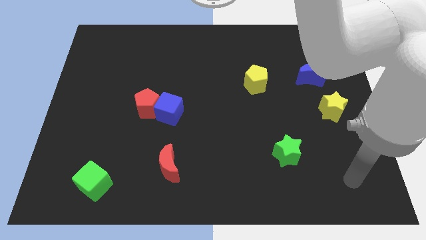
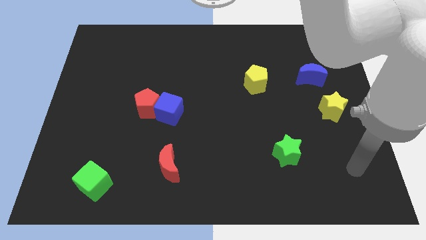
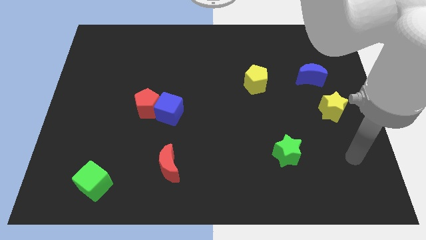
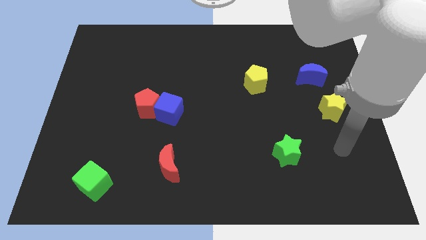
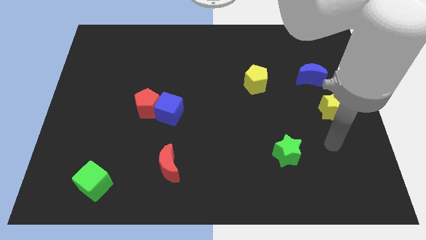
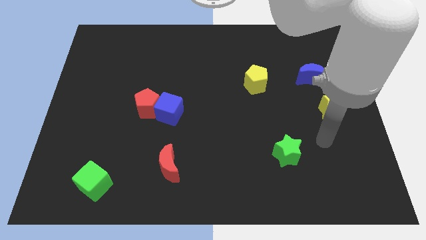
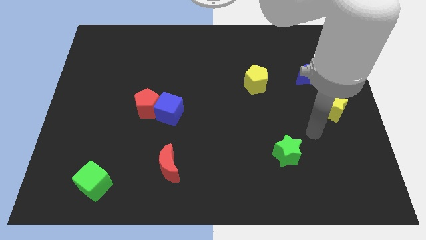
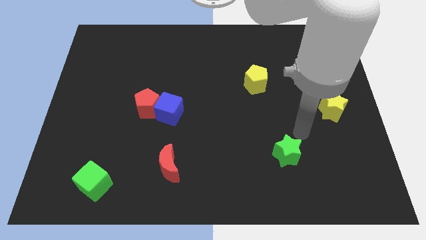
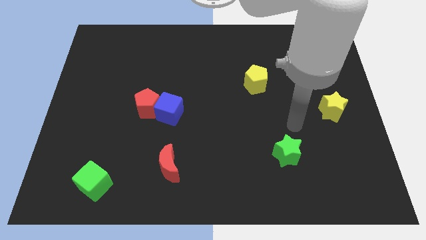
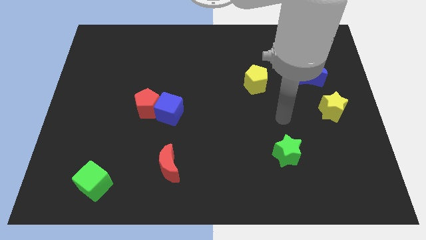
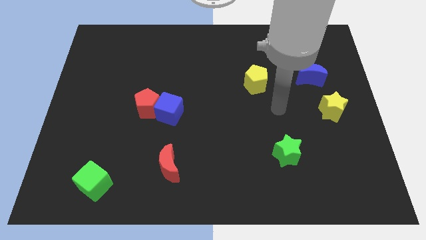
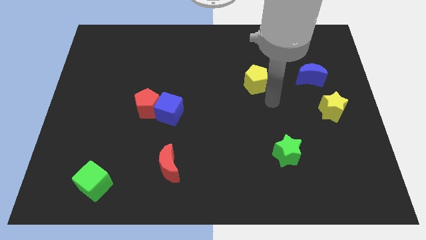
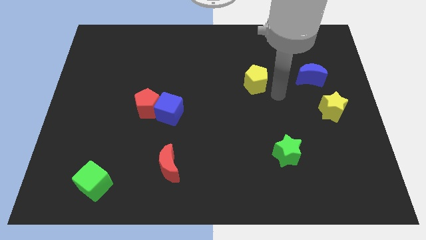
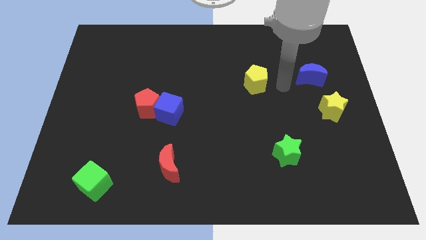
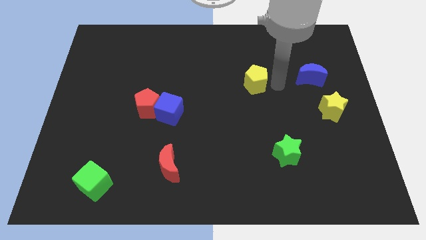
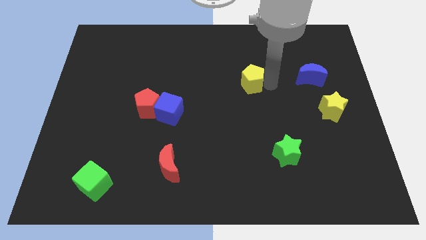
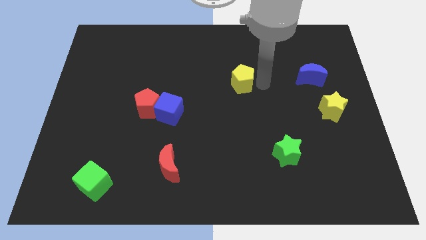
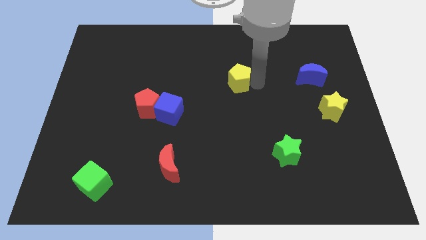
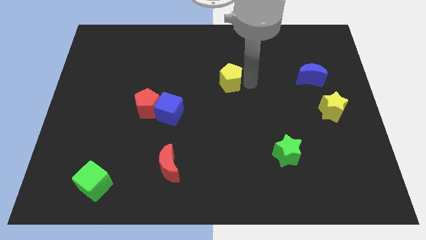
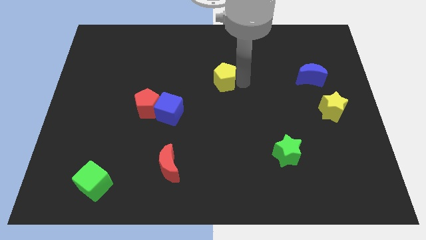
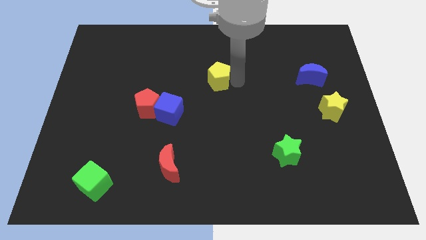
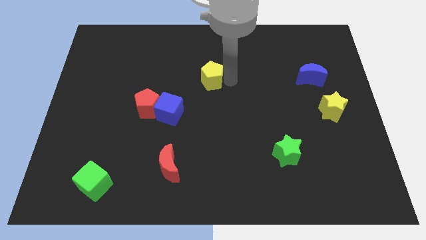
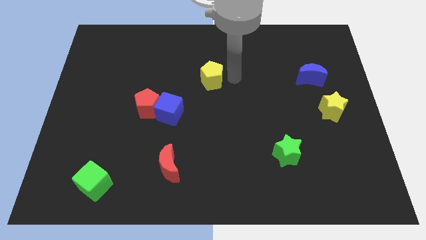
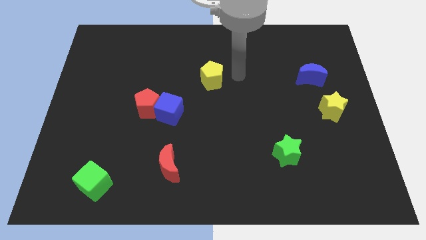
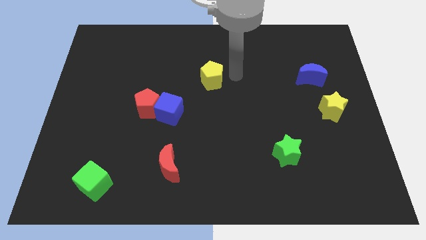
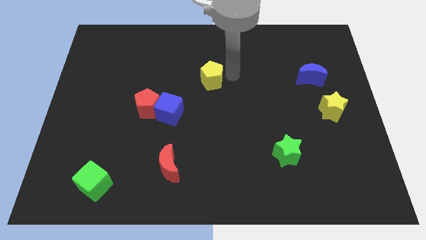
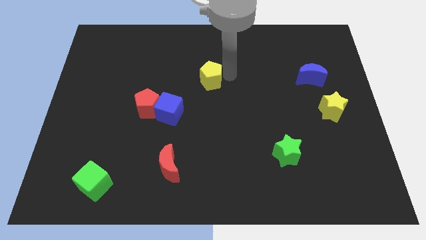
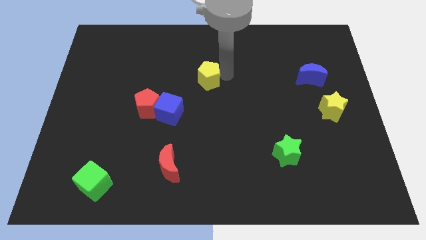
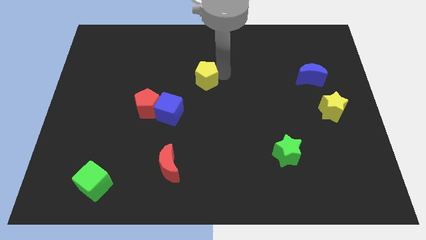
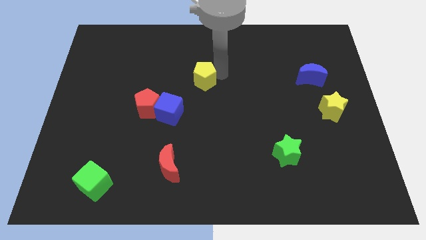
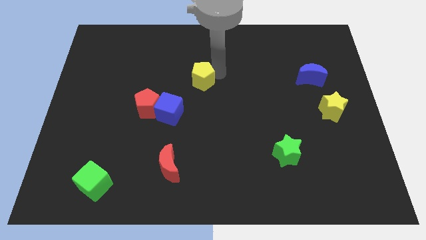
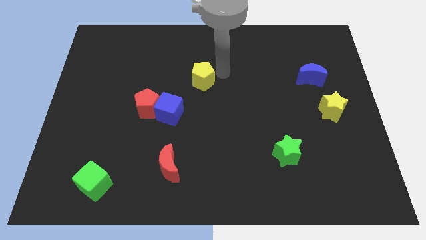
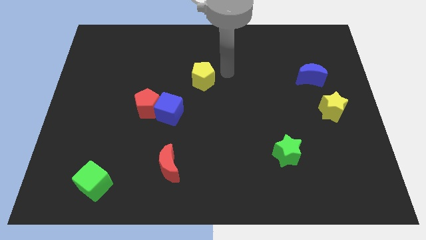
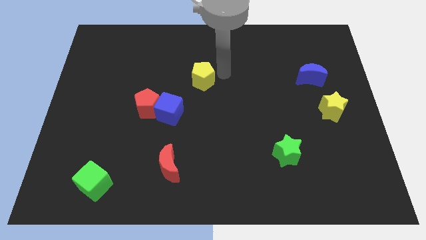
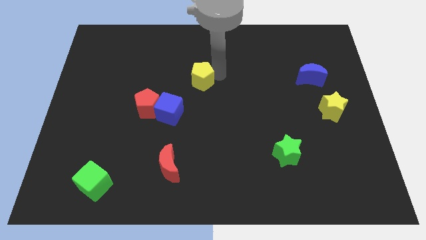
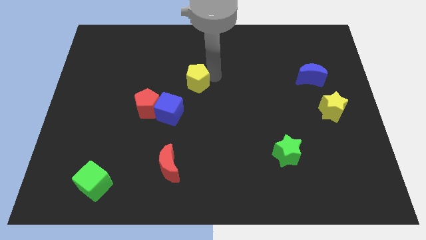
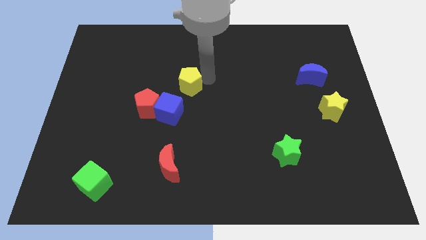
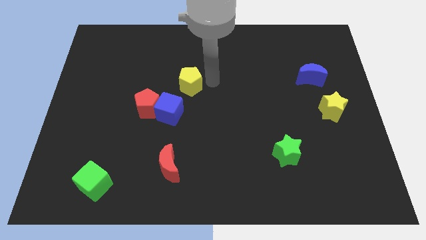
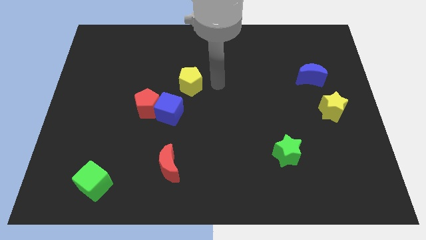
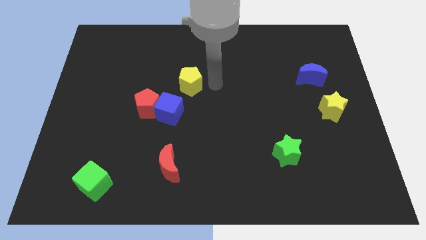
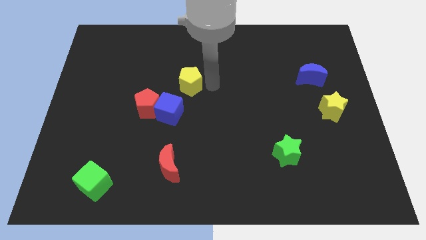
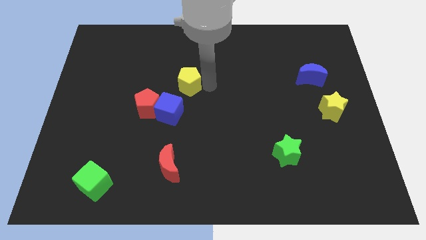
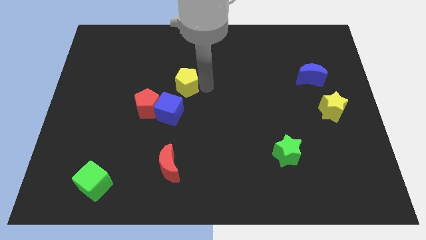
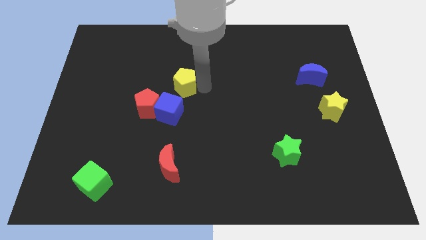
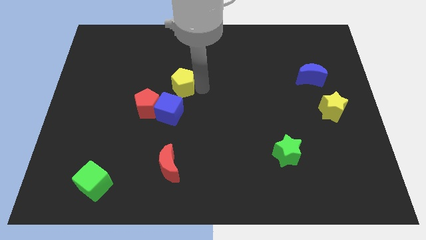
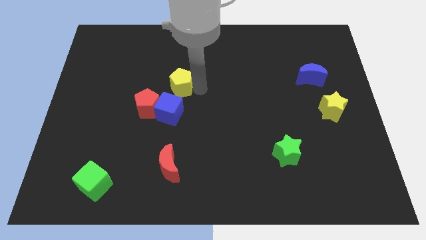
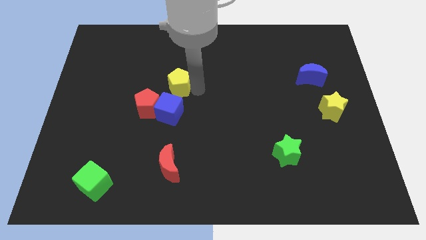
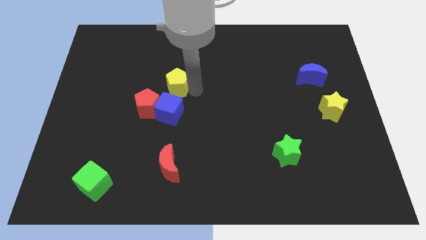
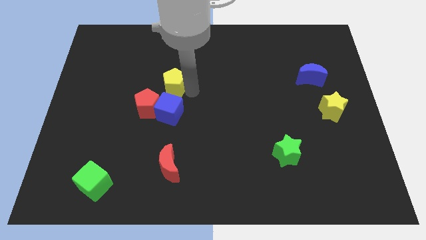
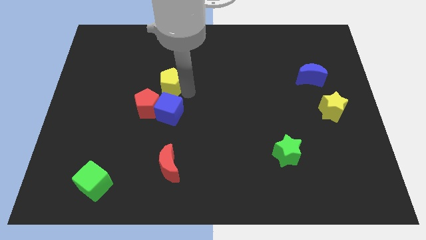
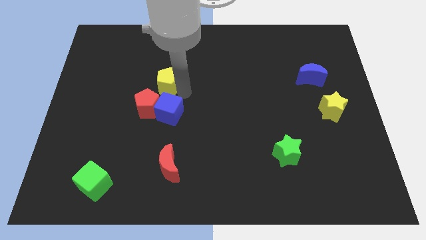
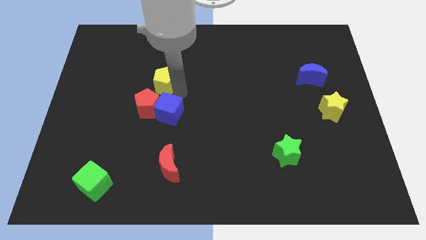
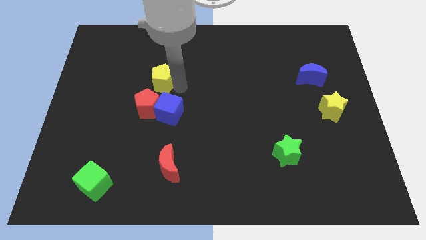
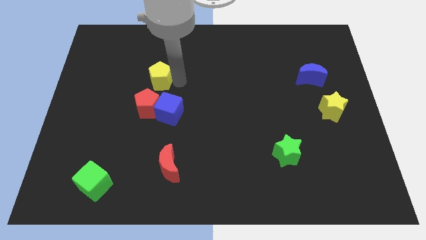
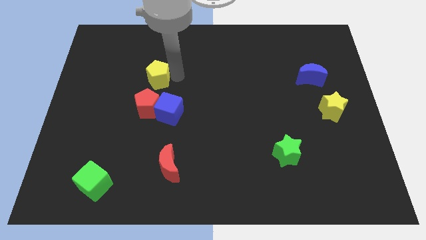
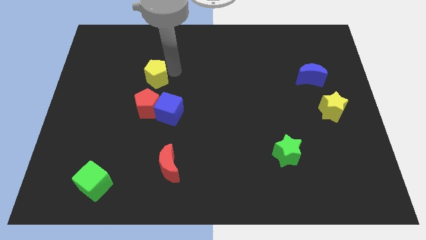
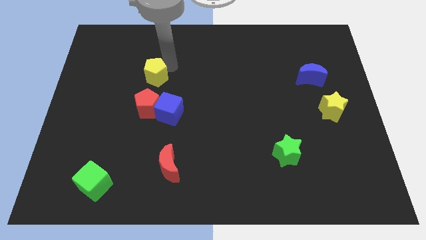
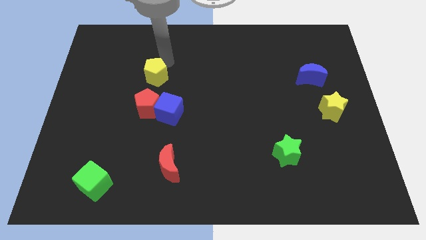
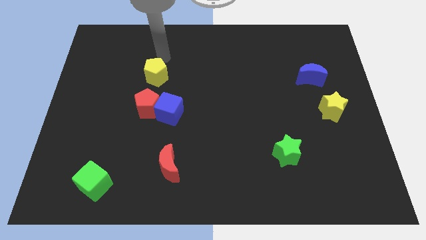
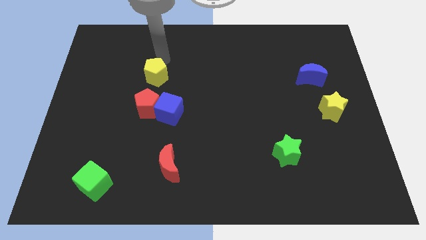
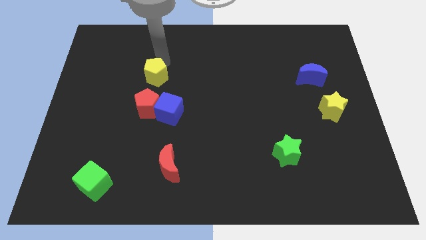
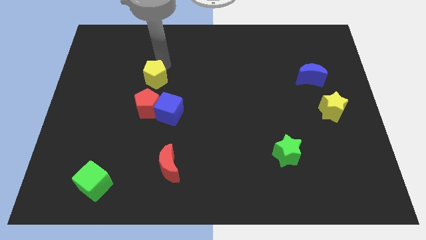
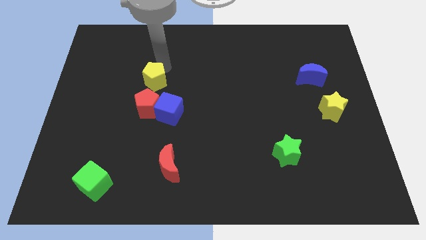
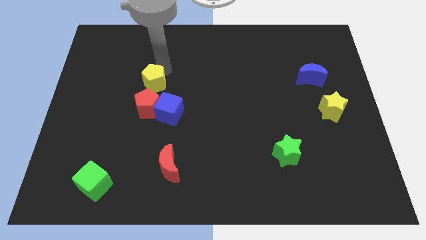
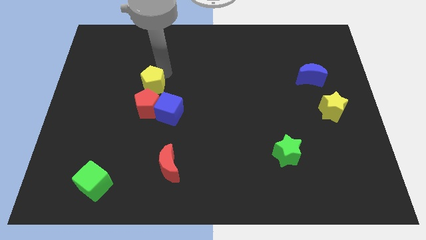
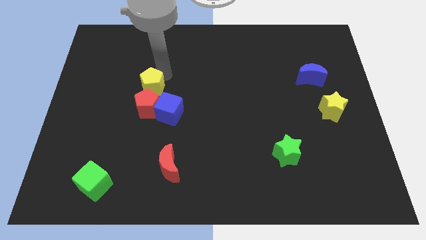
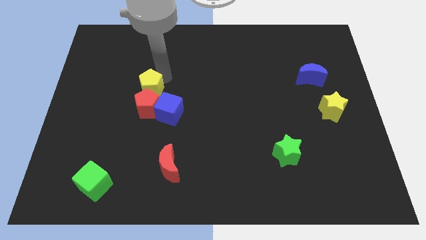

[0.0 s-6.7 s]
move the yellow pentagon to the red pentagon
